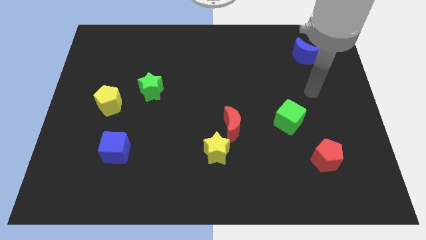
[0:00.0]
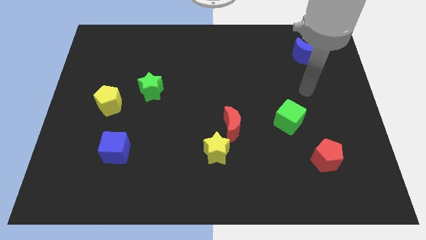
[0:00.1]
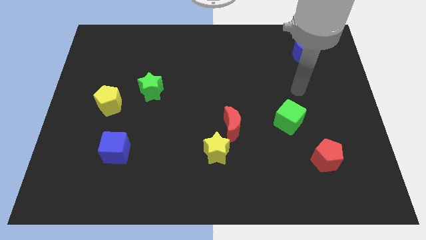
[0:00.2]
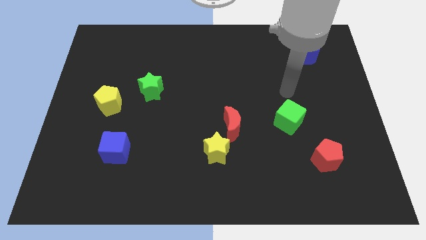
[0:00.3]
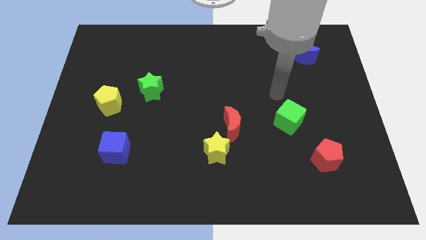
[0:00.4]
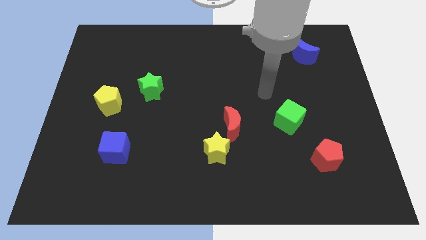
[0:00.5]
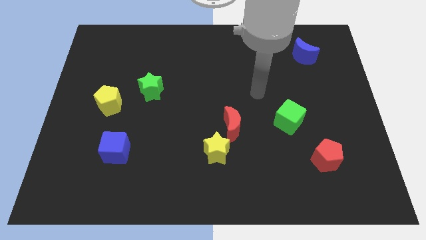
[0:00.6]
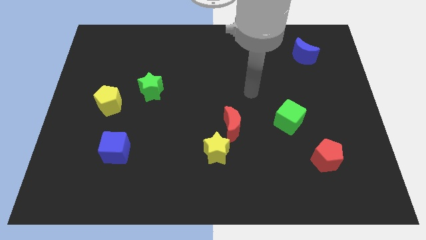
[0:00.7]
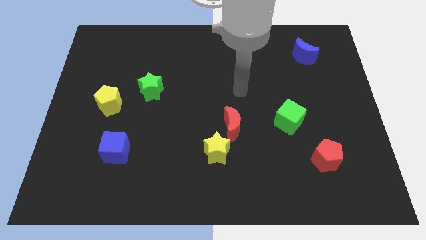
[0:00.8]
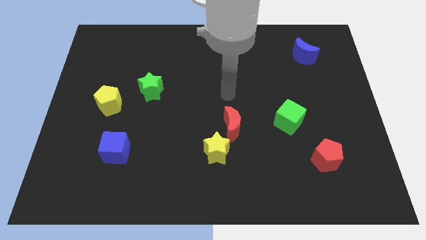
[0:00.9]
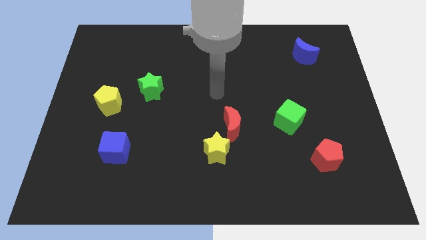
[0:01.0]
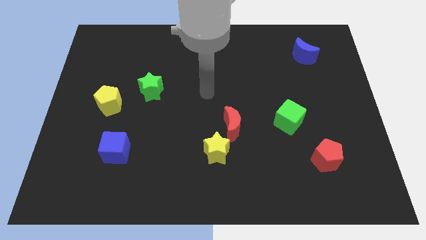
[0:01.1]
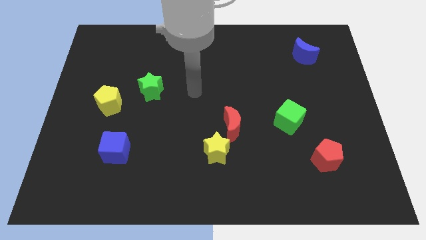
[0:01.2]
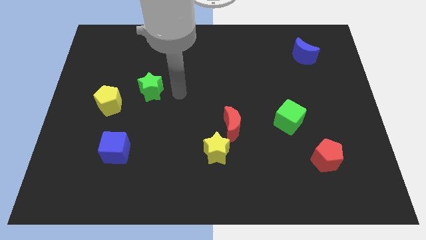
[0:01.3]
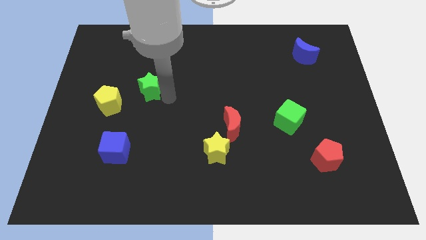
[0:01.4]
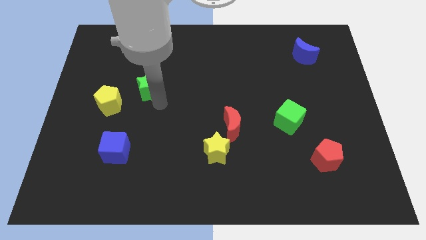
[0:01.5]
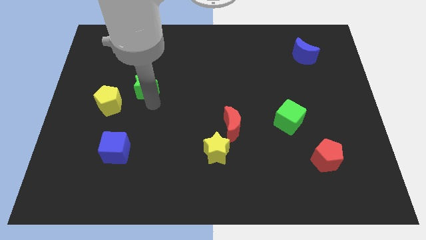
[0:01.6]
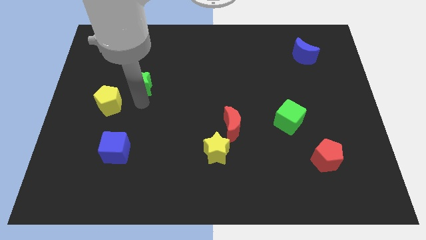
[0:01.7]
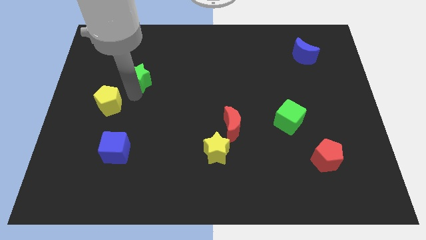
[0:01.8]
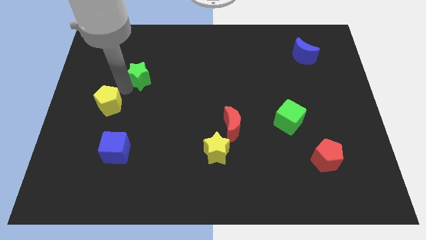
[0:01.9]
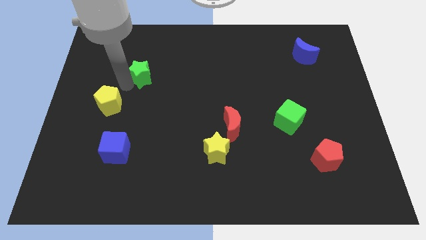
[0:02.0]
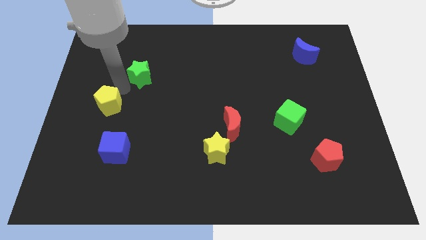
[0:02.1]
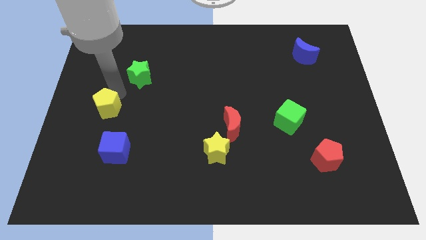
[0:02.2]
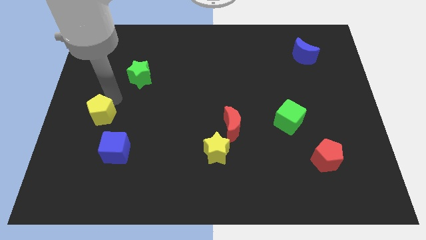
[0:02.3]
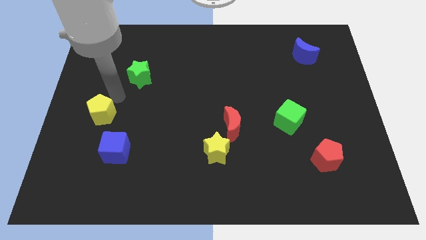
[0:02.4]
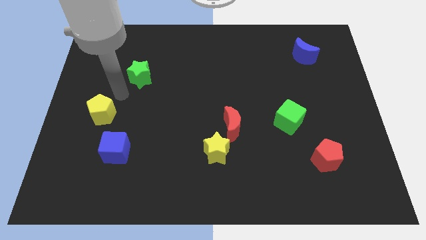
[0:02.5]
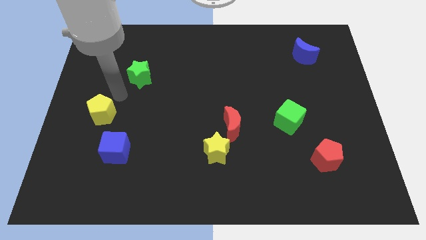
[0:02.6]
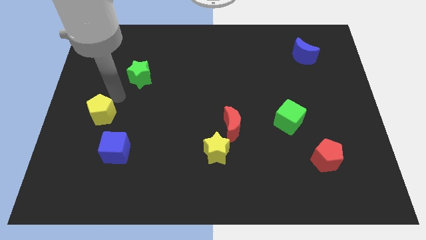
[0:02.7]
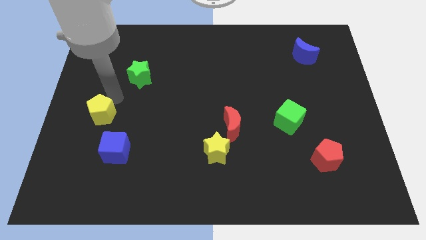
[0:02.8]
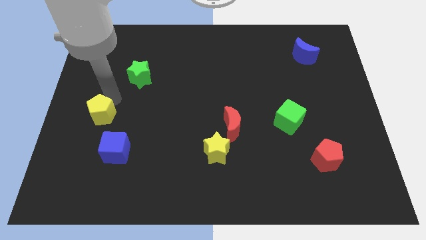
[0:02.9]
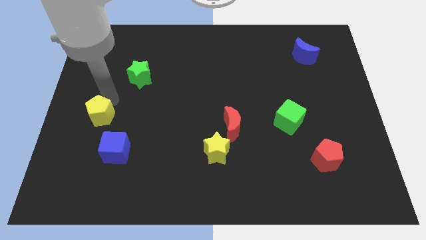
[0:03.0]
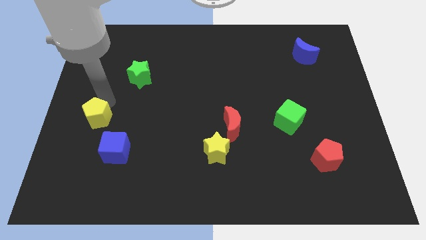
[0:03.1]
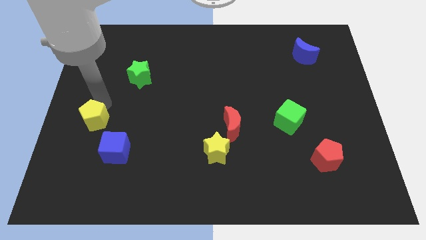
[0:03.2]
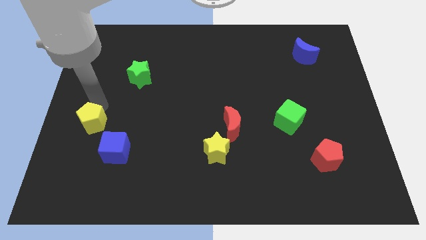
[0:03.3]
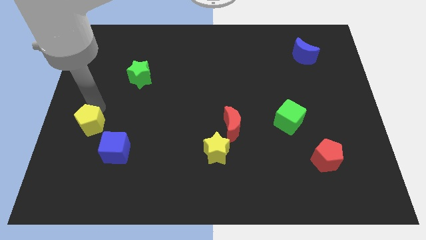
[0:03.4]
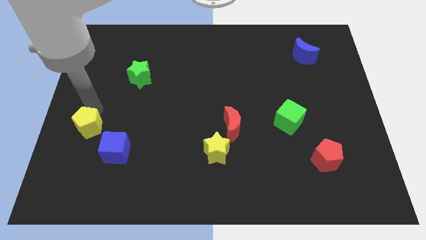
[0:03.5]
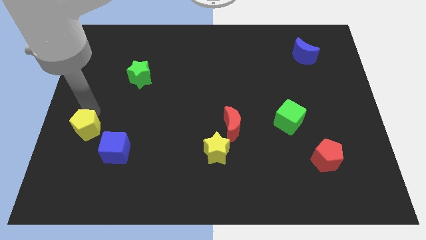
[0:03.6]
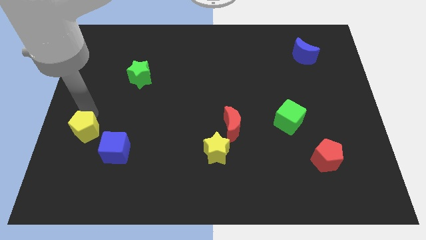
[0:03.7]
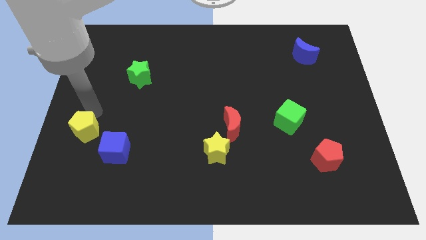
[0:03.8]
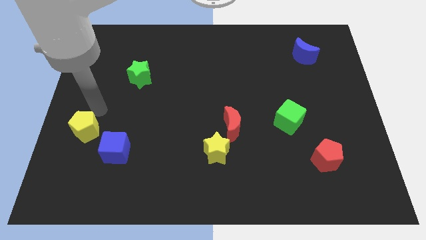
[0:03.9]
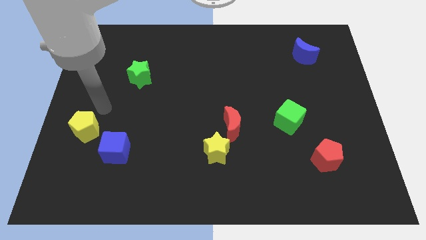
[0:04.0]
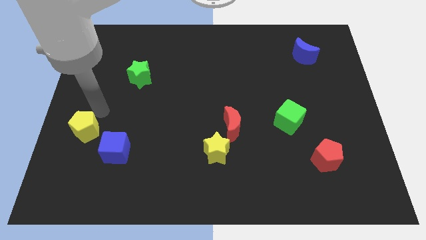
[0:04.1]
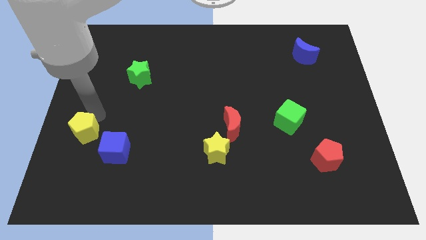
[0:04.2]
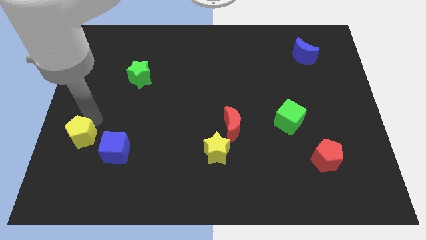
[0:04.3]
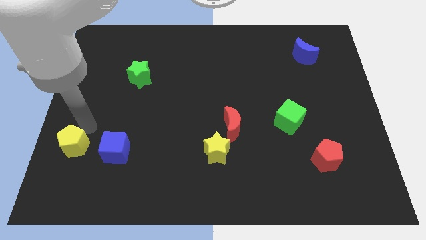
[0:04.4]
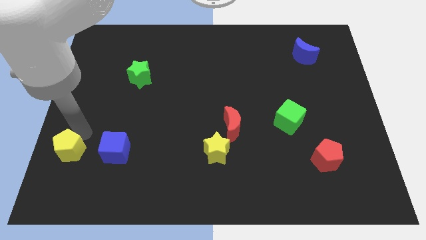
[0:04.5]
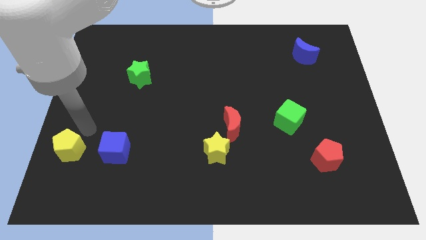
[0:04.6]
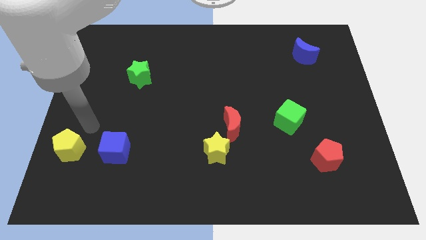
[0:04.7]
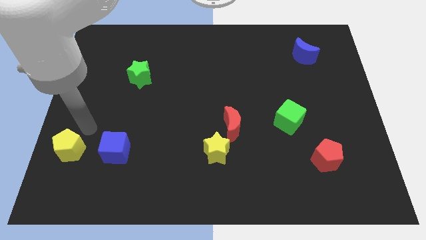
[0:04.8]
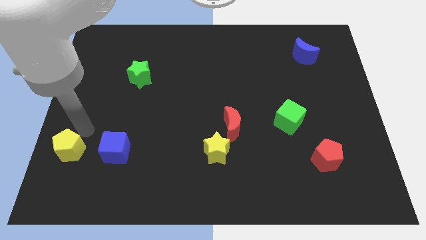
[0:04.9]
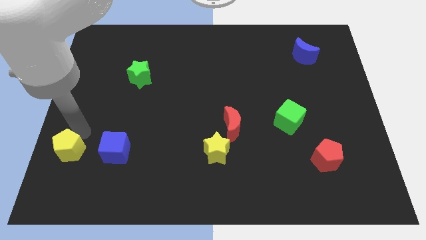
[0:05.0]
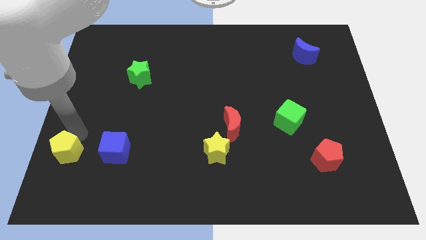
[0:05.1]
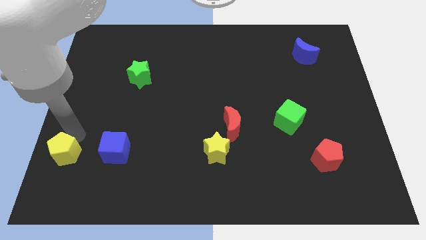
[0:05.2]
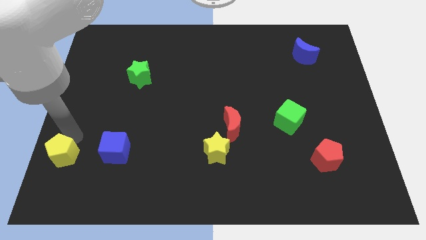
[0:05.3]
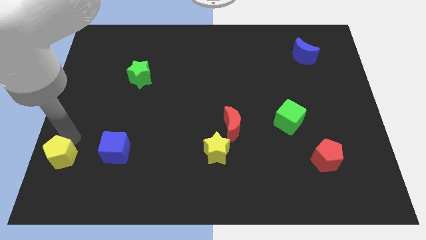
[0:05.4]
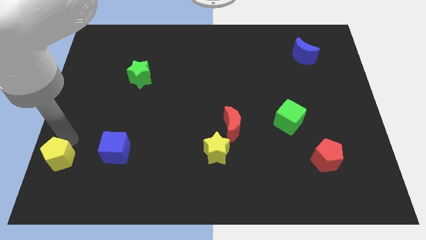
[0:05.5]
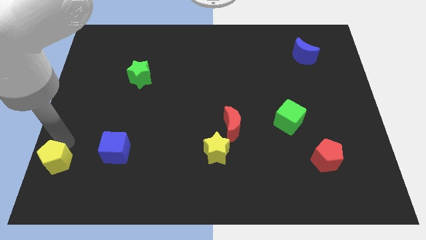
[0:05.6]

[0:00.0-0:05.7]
push the yellow pentagon to the lower left corner

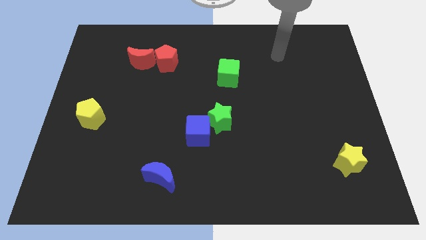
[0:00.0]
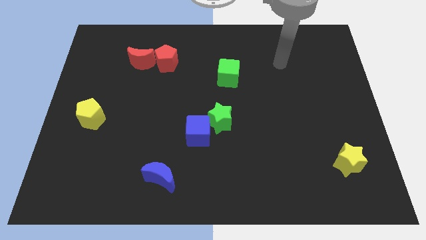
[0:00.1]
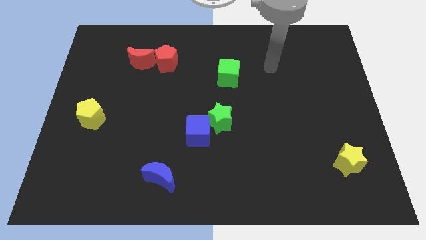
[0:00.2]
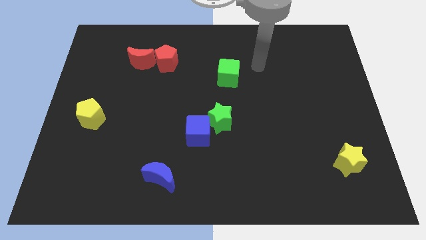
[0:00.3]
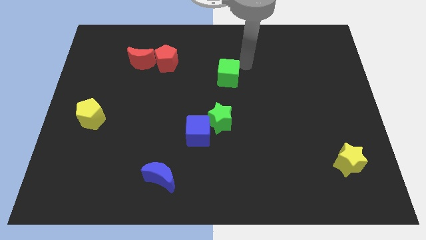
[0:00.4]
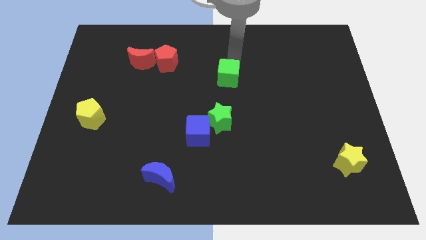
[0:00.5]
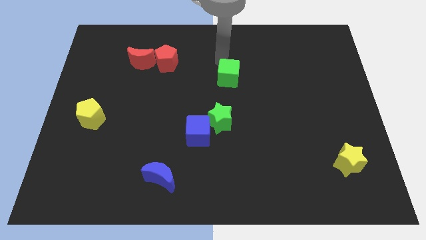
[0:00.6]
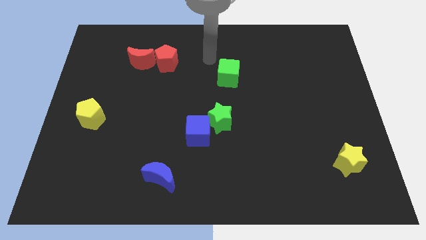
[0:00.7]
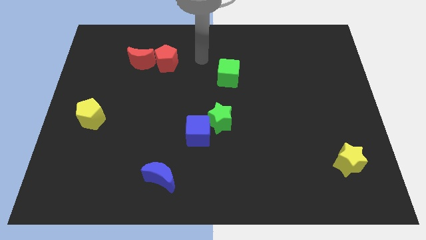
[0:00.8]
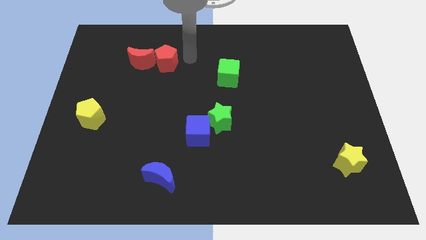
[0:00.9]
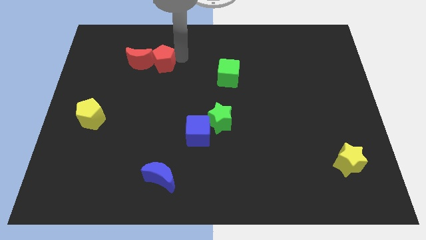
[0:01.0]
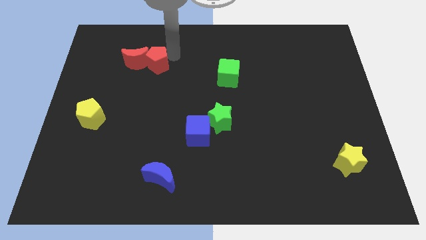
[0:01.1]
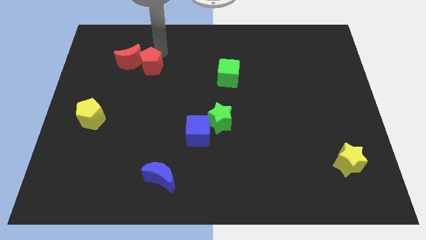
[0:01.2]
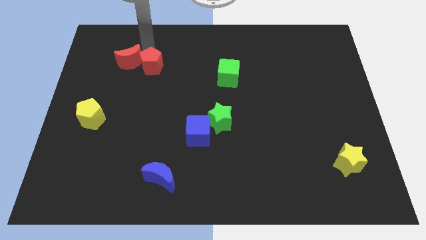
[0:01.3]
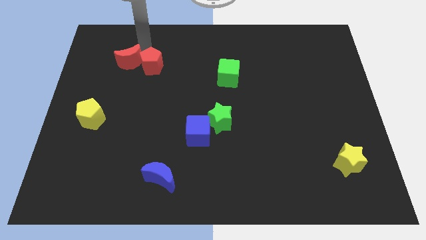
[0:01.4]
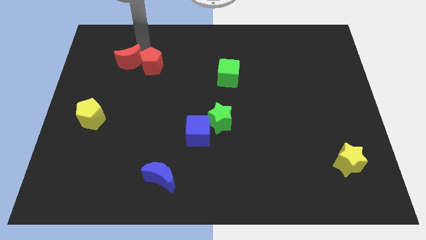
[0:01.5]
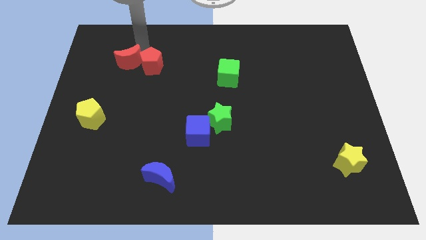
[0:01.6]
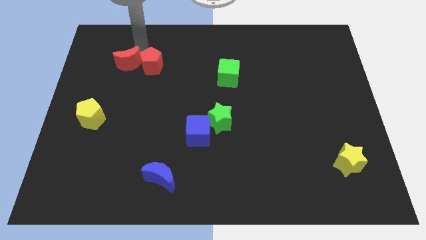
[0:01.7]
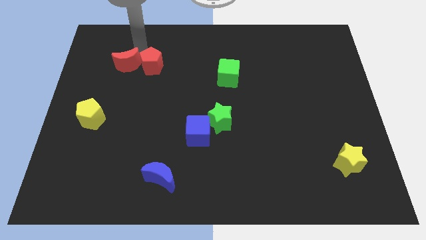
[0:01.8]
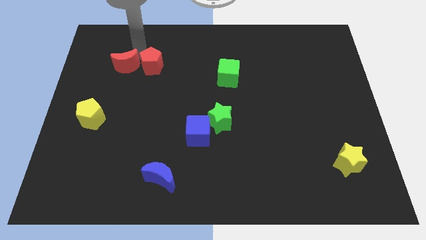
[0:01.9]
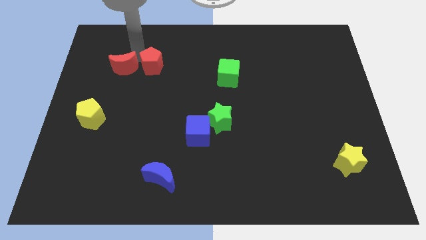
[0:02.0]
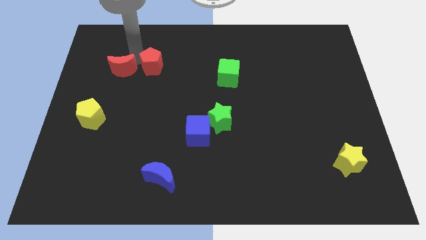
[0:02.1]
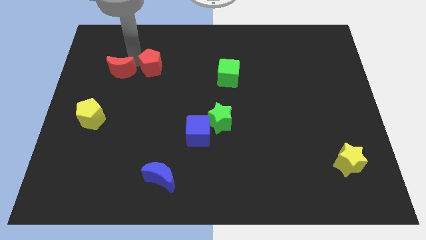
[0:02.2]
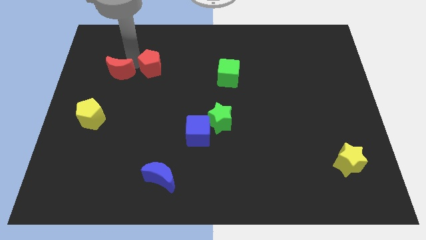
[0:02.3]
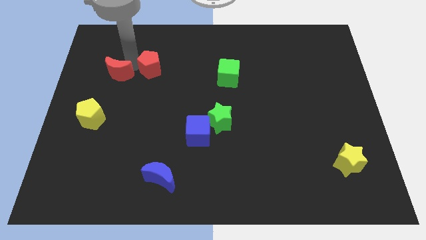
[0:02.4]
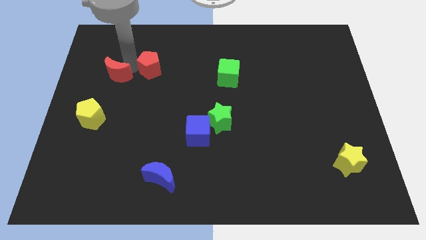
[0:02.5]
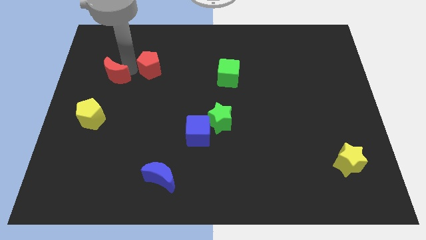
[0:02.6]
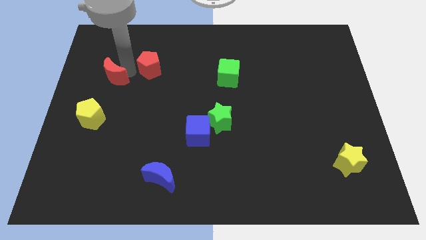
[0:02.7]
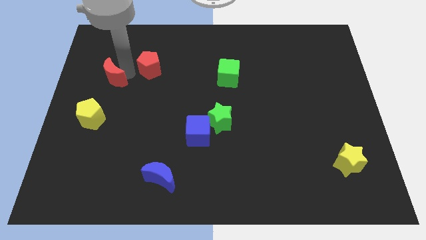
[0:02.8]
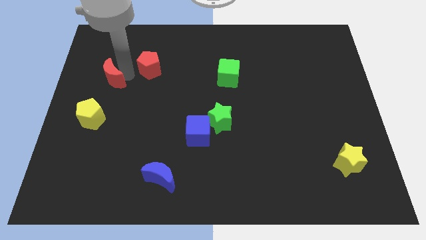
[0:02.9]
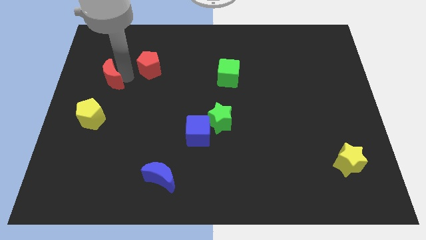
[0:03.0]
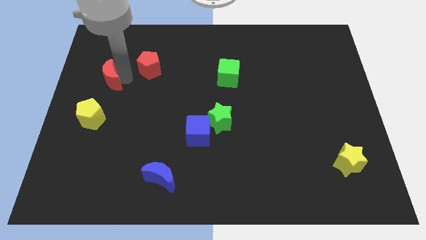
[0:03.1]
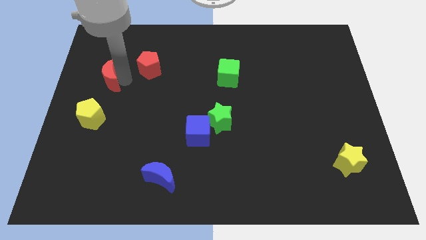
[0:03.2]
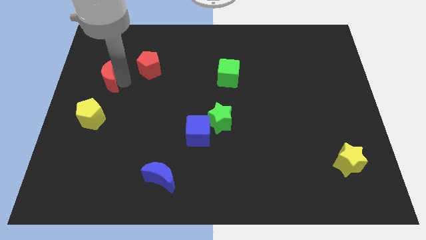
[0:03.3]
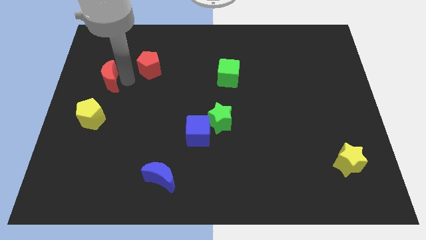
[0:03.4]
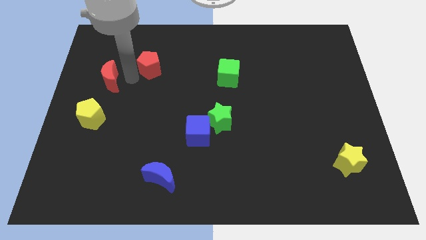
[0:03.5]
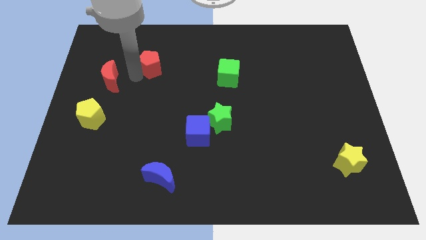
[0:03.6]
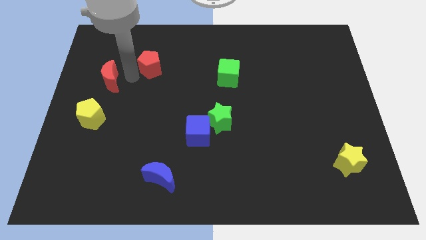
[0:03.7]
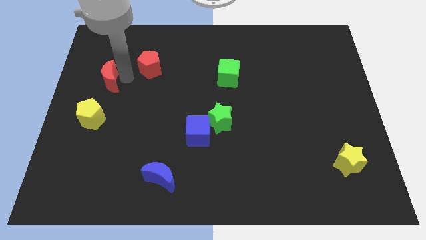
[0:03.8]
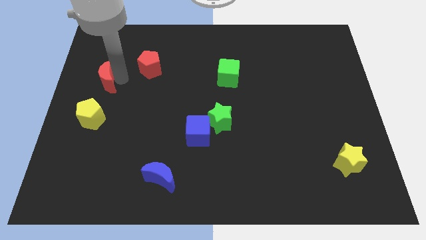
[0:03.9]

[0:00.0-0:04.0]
slide the red moon to the left side
